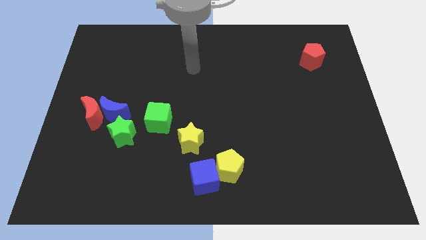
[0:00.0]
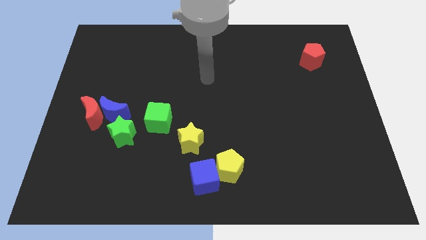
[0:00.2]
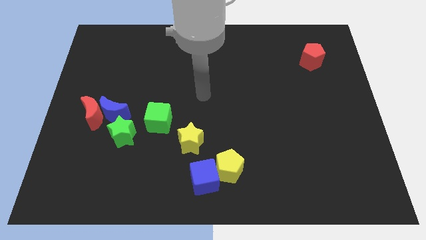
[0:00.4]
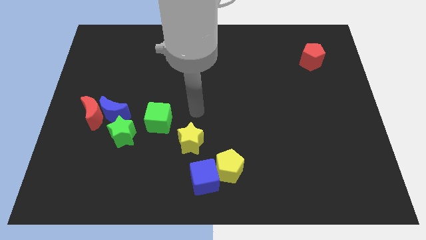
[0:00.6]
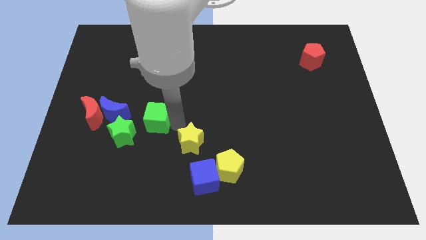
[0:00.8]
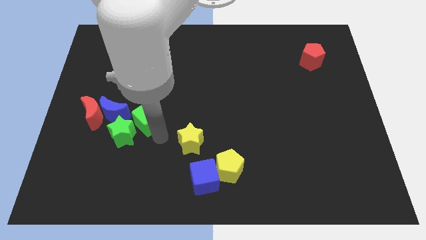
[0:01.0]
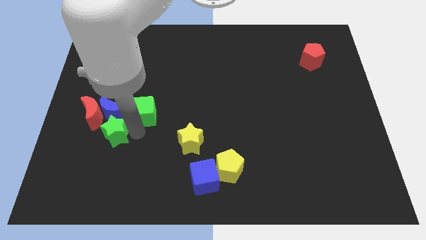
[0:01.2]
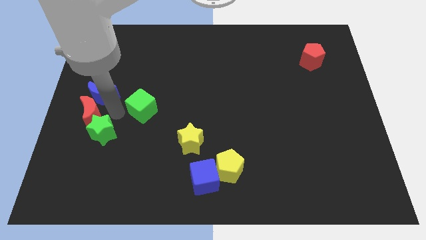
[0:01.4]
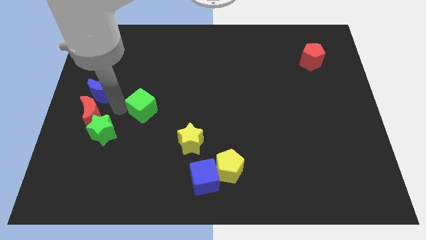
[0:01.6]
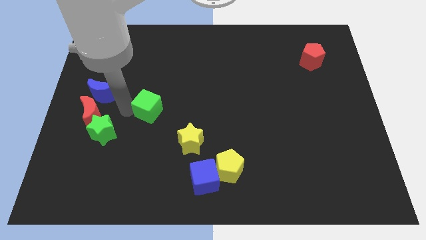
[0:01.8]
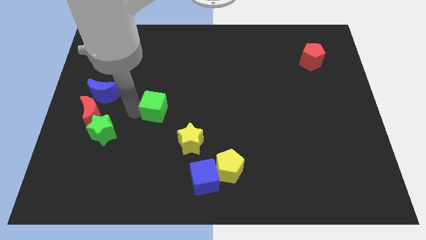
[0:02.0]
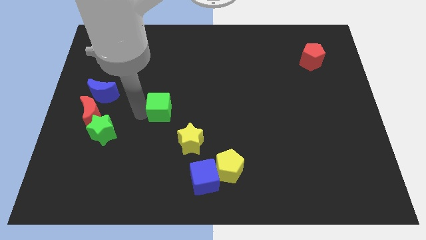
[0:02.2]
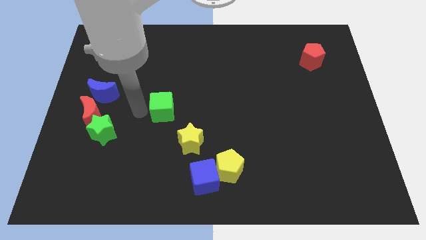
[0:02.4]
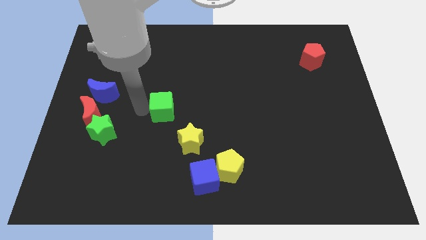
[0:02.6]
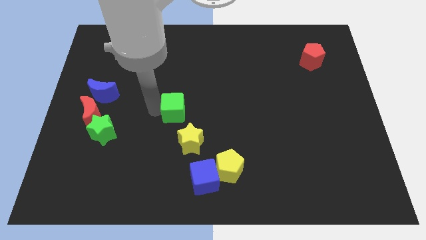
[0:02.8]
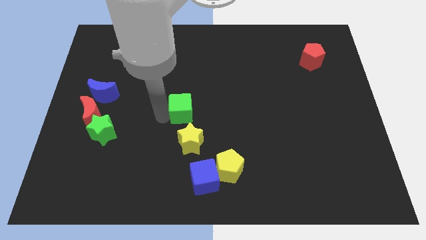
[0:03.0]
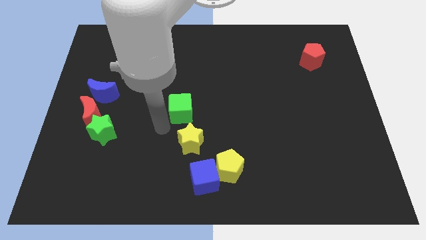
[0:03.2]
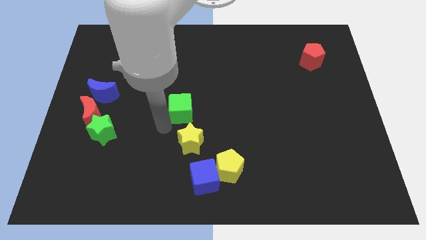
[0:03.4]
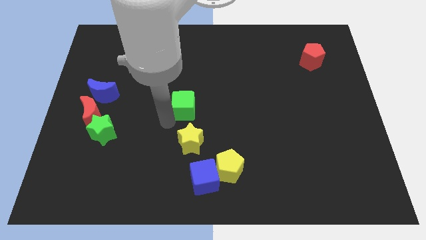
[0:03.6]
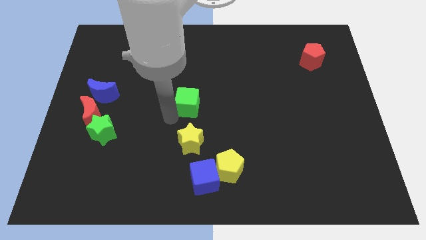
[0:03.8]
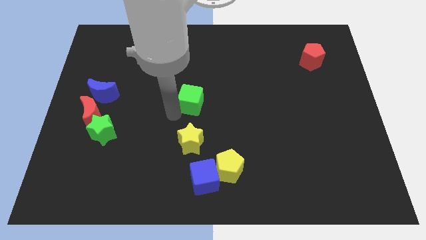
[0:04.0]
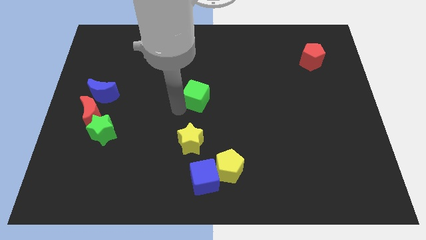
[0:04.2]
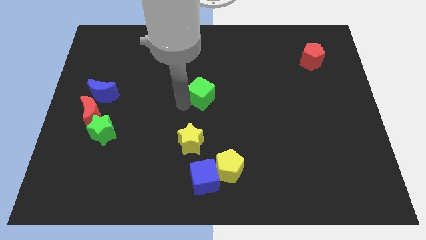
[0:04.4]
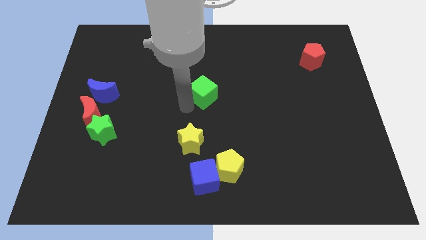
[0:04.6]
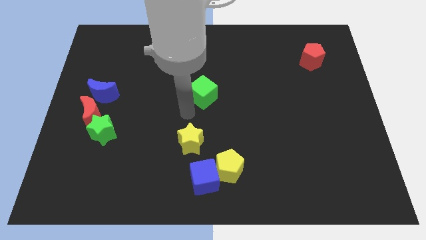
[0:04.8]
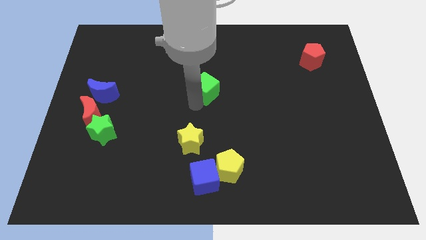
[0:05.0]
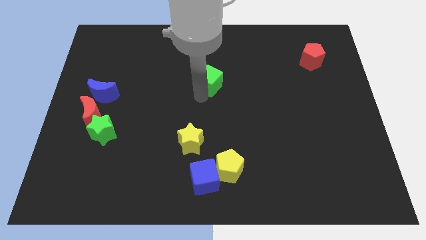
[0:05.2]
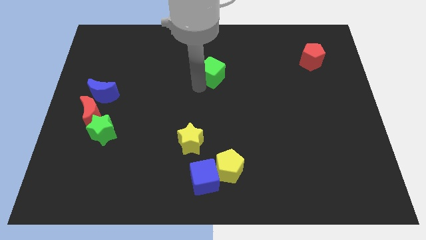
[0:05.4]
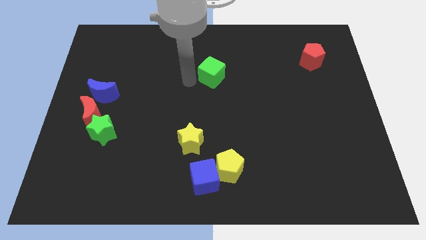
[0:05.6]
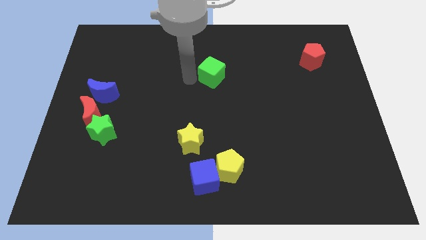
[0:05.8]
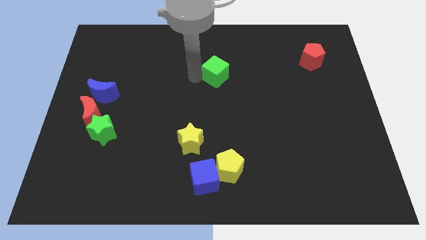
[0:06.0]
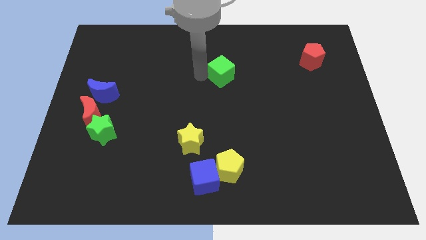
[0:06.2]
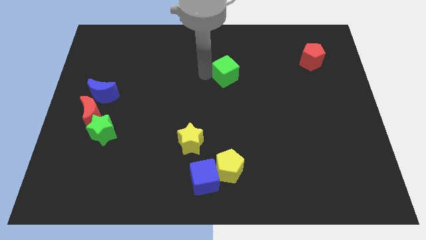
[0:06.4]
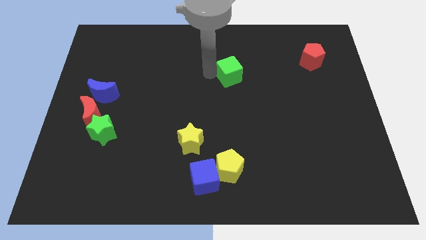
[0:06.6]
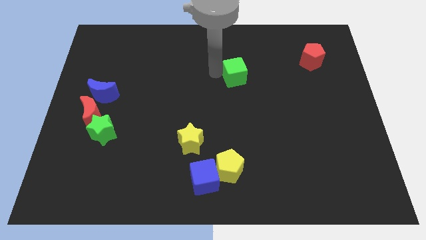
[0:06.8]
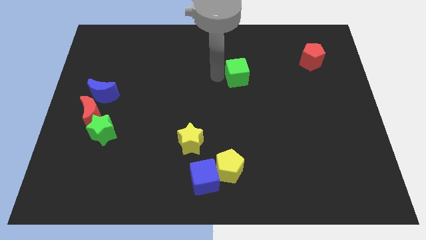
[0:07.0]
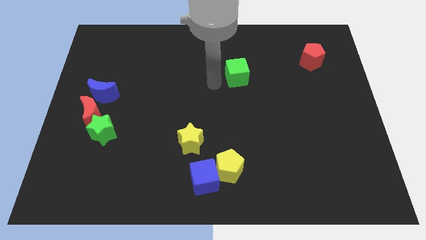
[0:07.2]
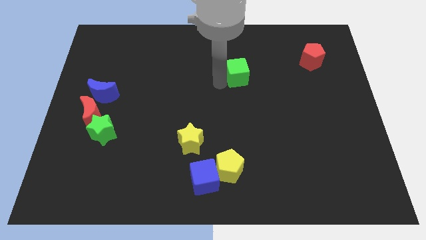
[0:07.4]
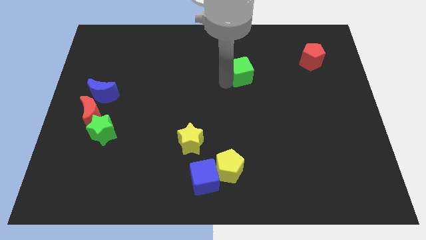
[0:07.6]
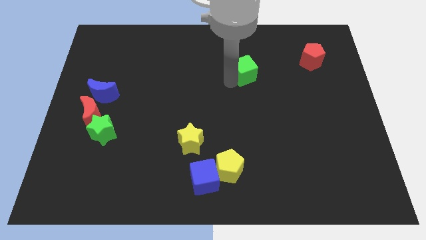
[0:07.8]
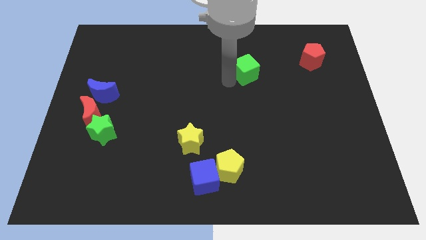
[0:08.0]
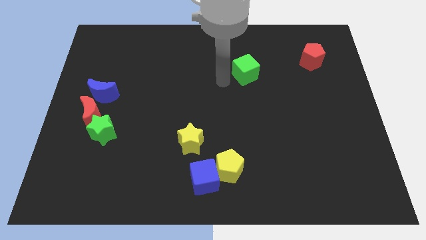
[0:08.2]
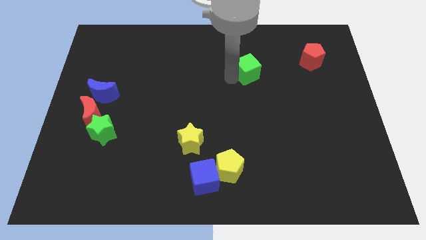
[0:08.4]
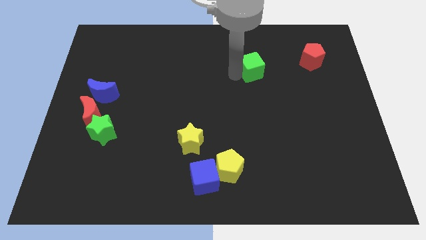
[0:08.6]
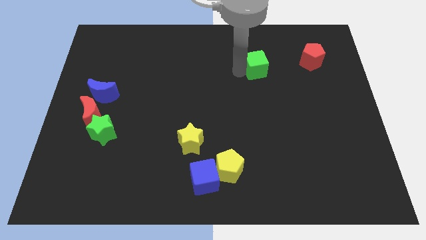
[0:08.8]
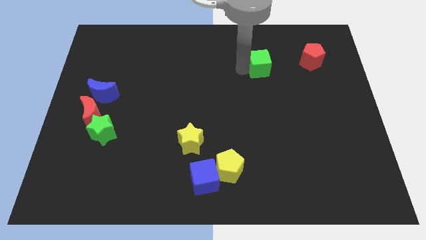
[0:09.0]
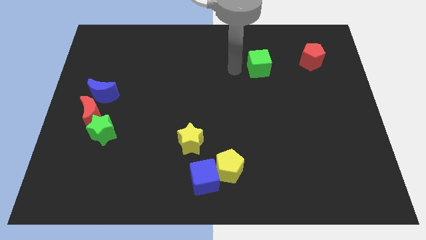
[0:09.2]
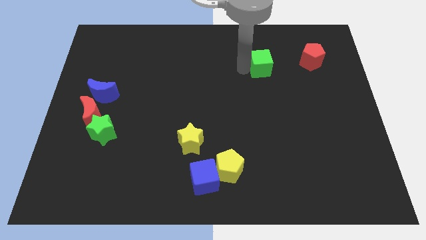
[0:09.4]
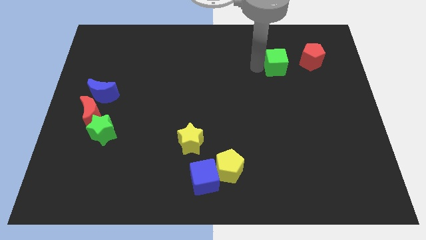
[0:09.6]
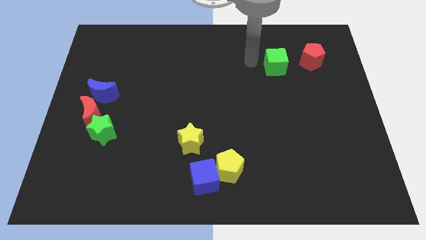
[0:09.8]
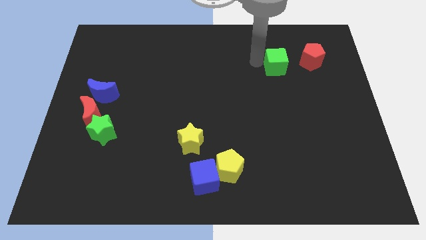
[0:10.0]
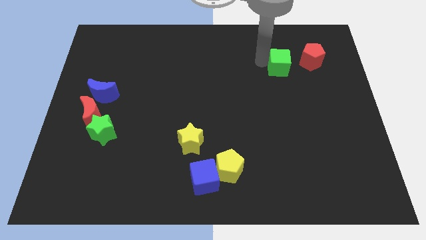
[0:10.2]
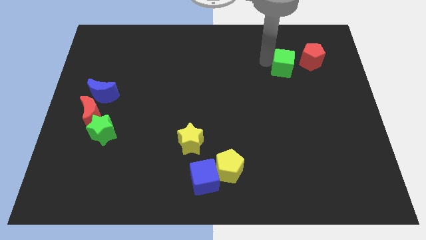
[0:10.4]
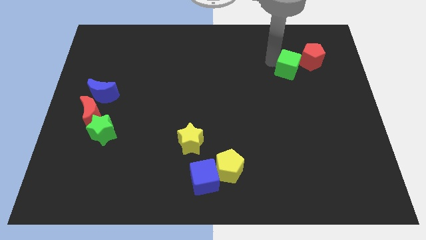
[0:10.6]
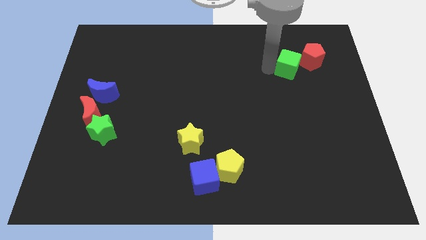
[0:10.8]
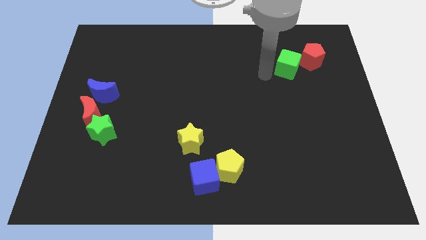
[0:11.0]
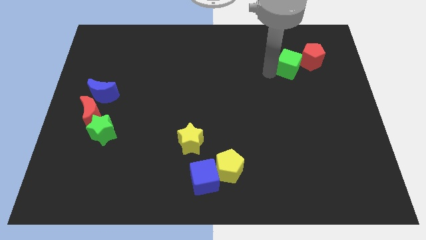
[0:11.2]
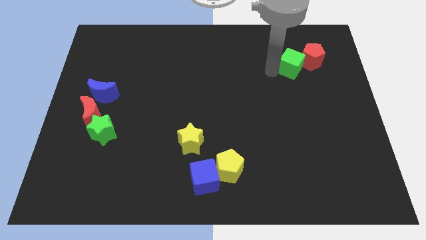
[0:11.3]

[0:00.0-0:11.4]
slide the green cube to the red pentagon

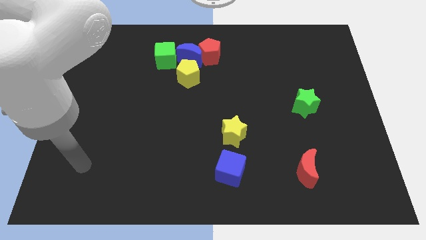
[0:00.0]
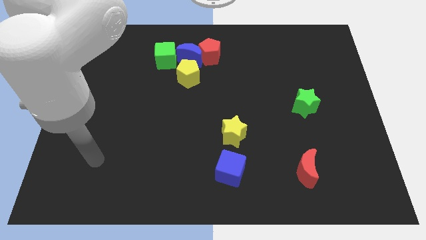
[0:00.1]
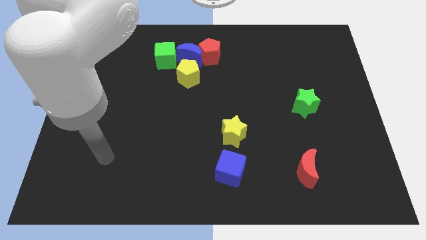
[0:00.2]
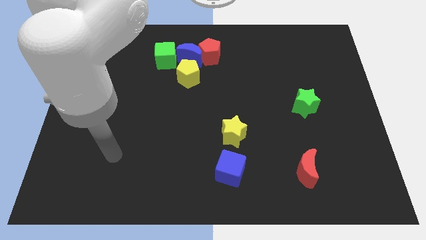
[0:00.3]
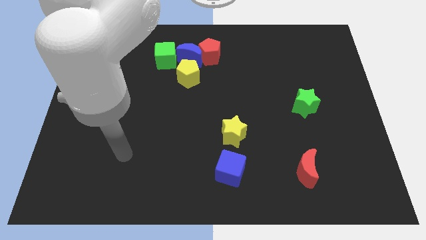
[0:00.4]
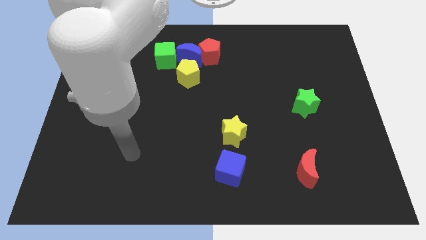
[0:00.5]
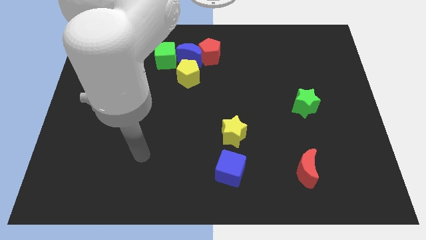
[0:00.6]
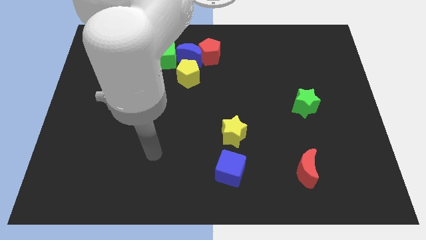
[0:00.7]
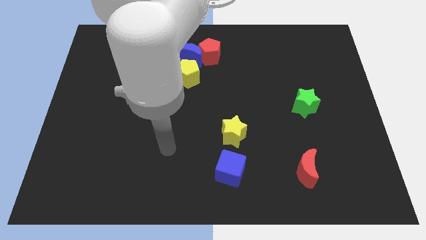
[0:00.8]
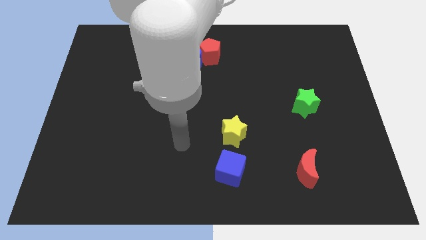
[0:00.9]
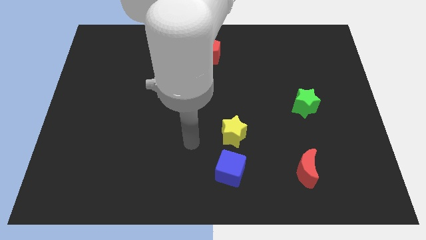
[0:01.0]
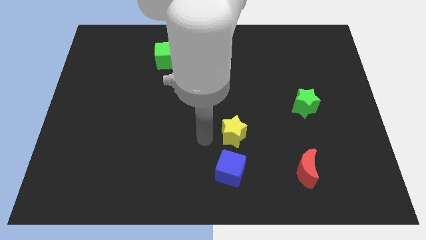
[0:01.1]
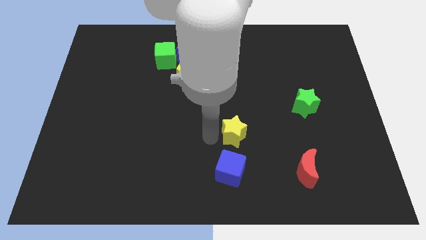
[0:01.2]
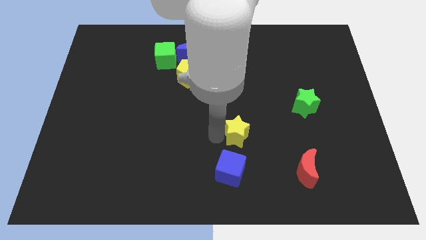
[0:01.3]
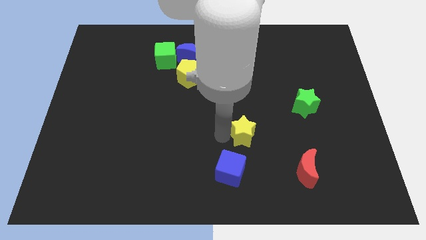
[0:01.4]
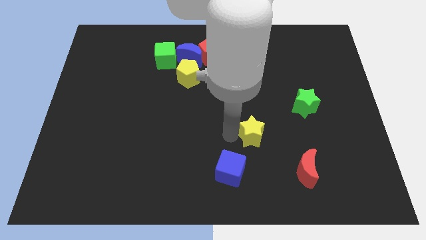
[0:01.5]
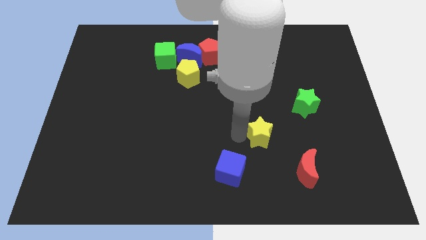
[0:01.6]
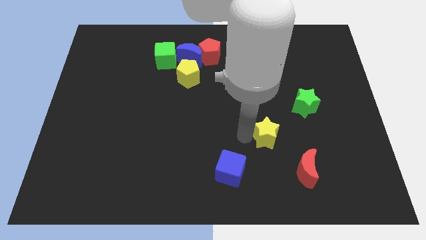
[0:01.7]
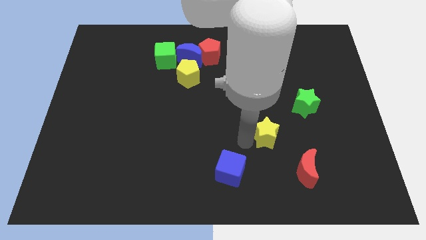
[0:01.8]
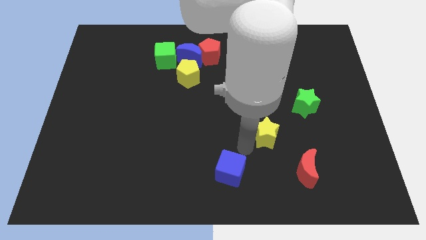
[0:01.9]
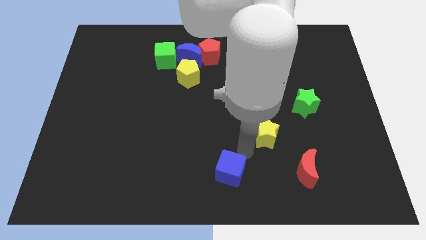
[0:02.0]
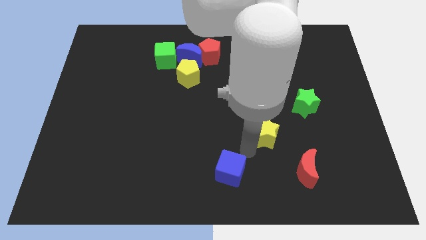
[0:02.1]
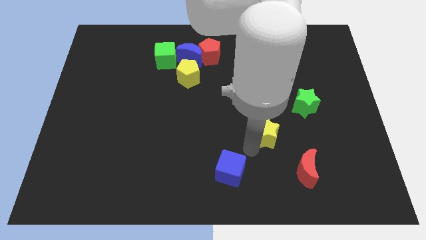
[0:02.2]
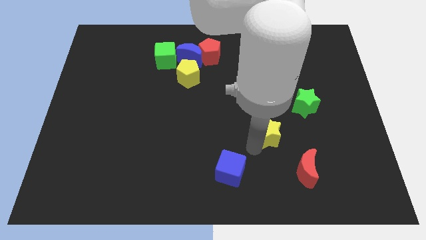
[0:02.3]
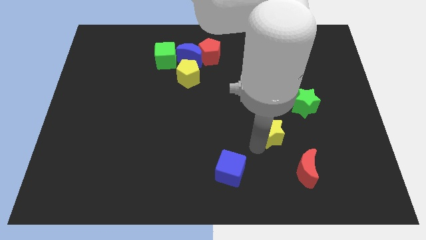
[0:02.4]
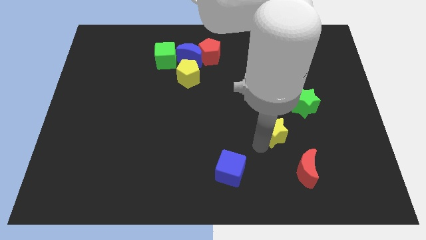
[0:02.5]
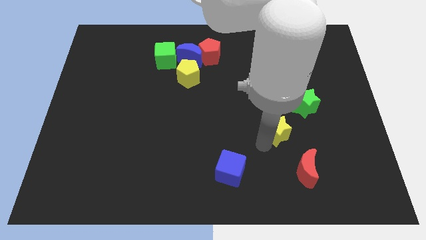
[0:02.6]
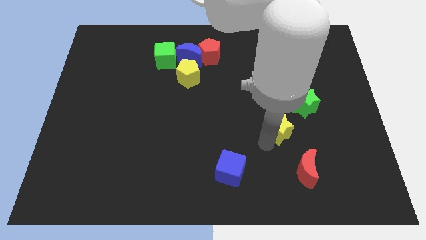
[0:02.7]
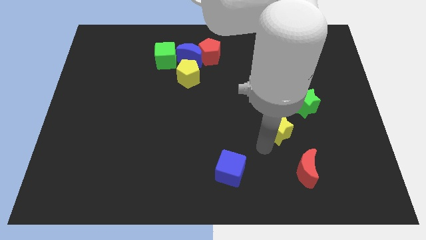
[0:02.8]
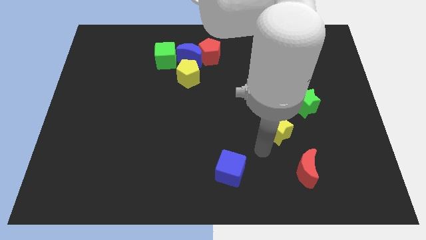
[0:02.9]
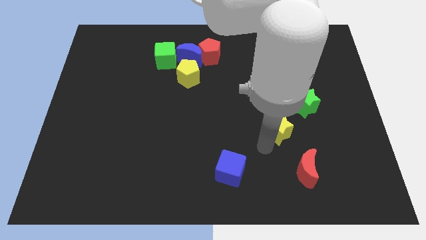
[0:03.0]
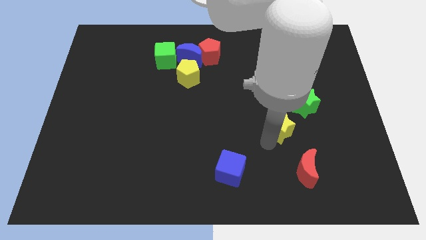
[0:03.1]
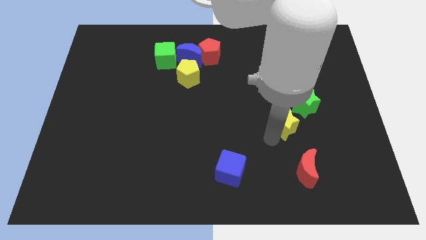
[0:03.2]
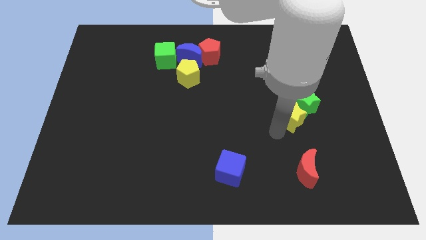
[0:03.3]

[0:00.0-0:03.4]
push the yellow star close to the green star
